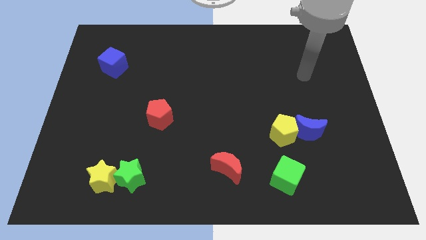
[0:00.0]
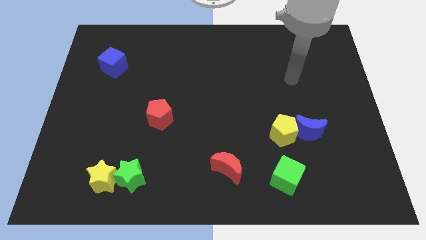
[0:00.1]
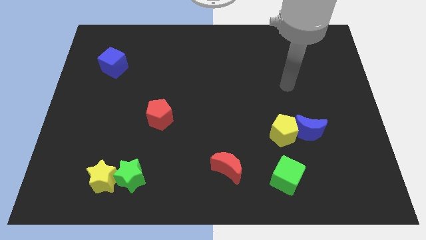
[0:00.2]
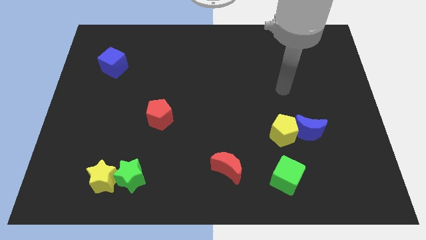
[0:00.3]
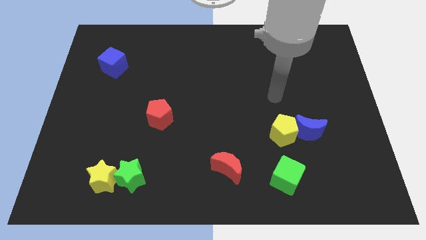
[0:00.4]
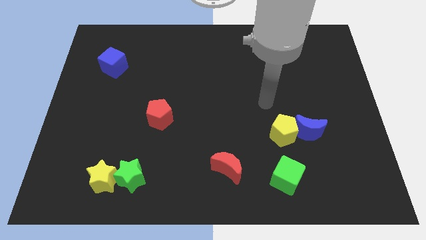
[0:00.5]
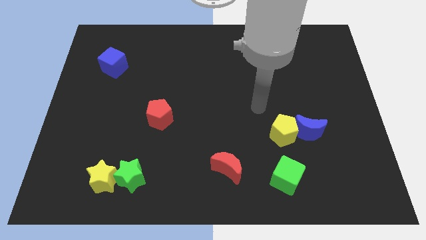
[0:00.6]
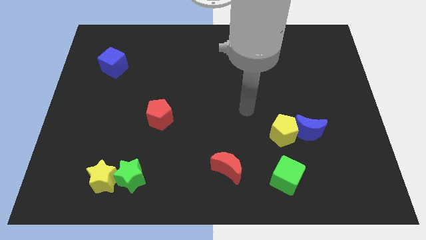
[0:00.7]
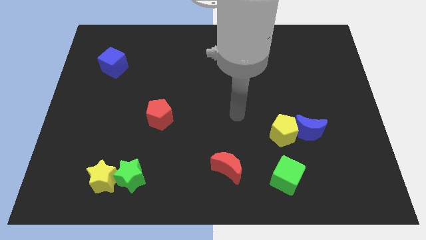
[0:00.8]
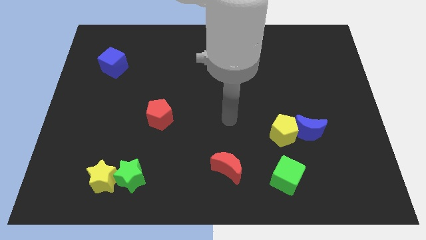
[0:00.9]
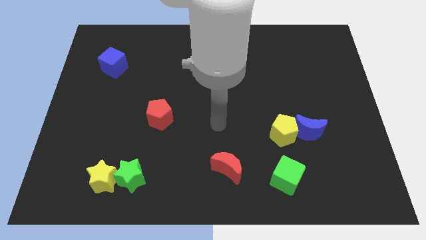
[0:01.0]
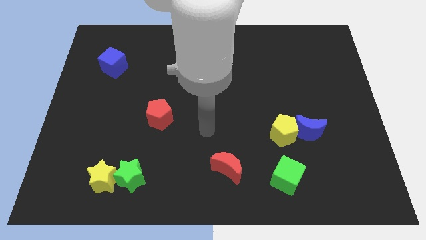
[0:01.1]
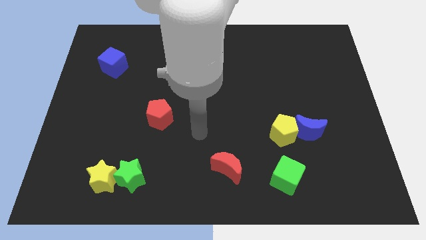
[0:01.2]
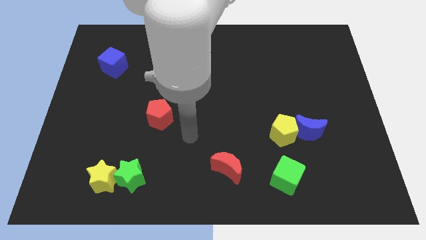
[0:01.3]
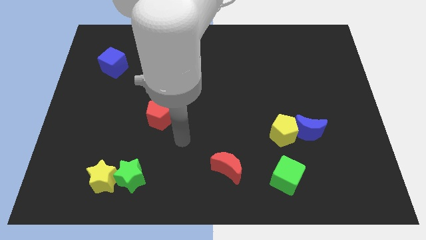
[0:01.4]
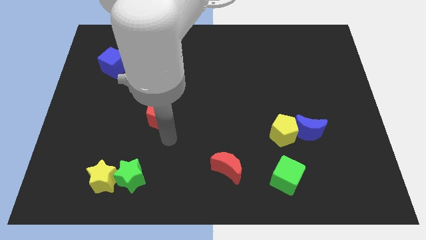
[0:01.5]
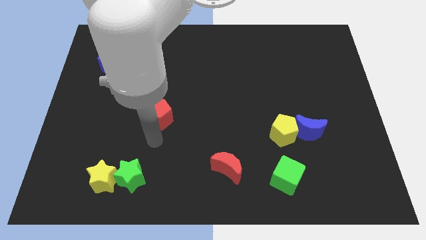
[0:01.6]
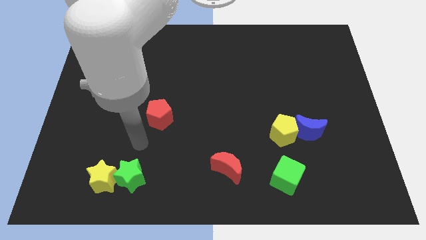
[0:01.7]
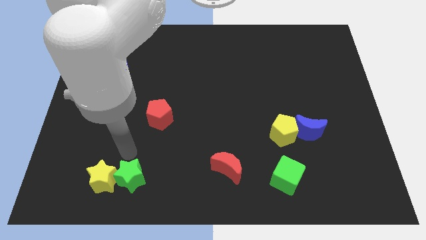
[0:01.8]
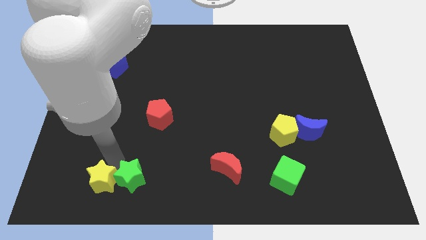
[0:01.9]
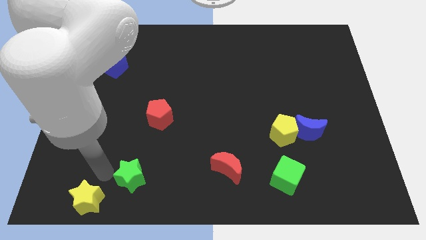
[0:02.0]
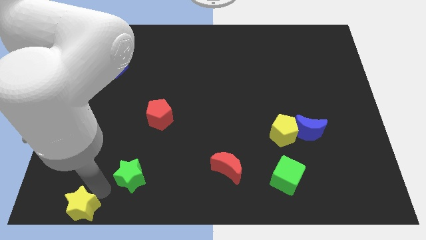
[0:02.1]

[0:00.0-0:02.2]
pull the green star apart from the yellow star

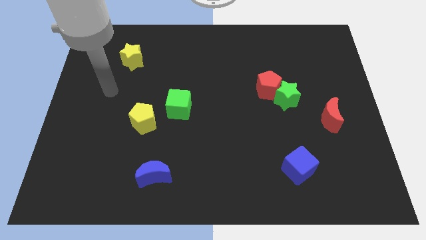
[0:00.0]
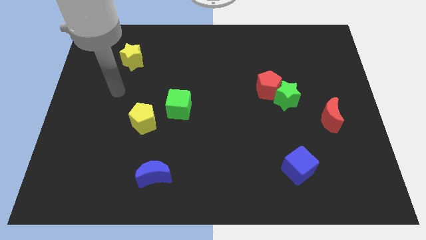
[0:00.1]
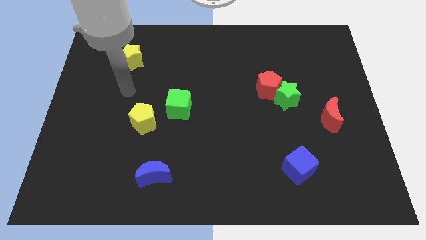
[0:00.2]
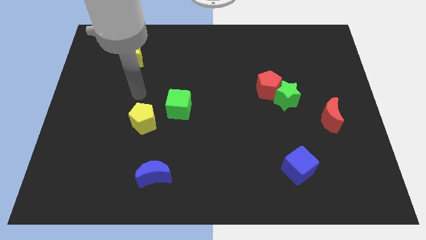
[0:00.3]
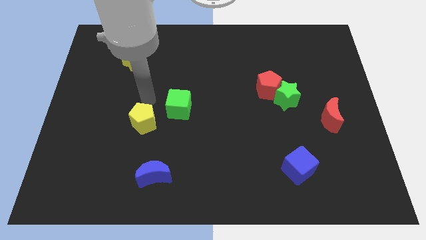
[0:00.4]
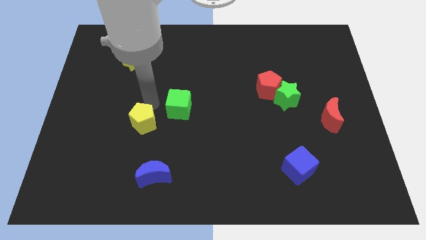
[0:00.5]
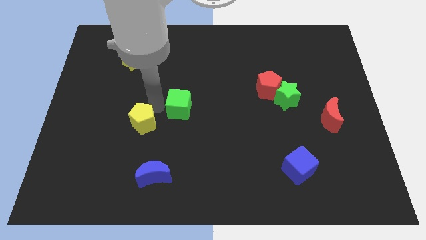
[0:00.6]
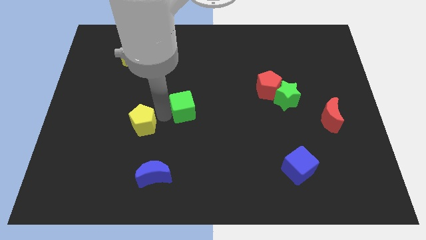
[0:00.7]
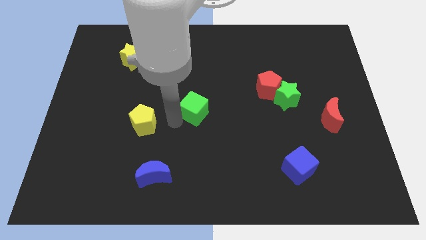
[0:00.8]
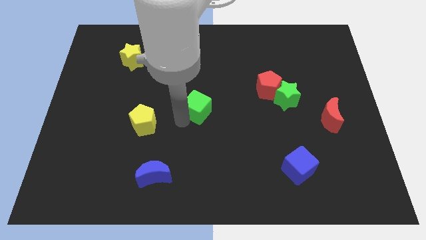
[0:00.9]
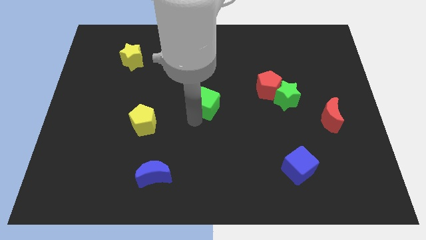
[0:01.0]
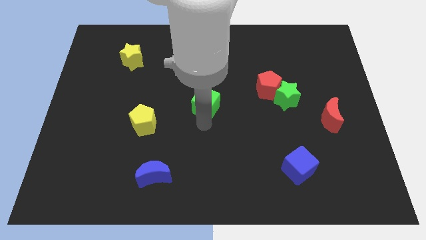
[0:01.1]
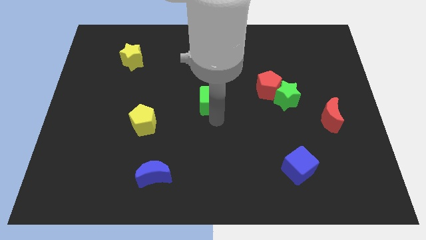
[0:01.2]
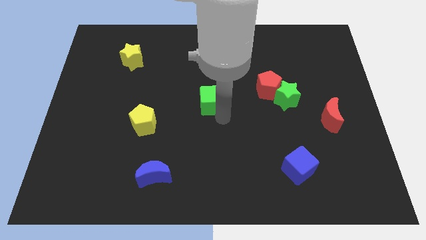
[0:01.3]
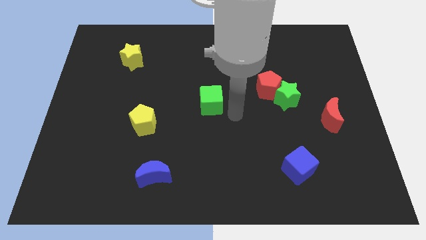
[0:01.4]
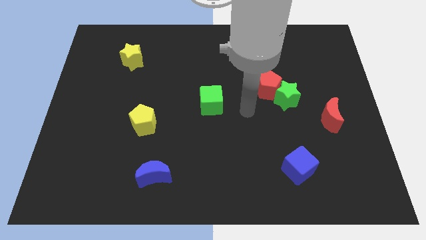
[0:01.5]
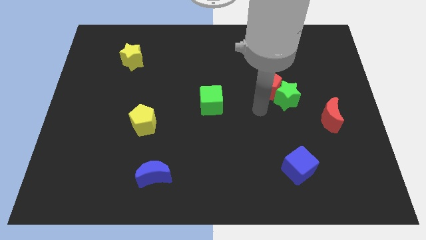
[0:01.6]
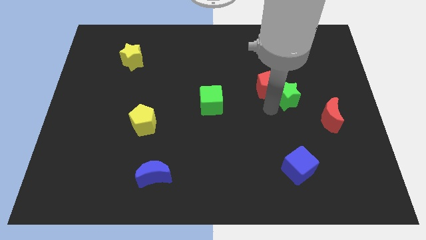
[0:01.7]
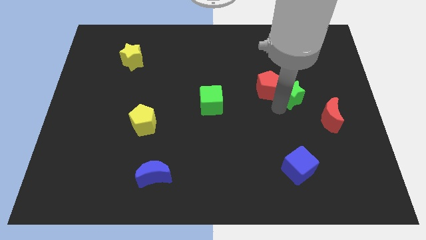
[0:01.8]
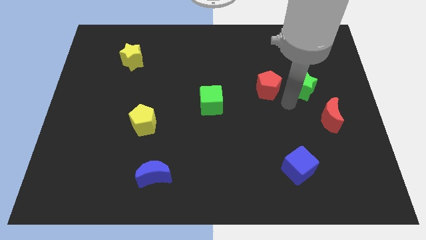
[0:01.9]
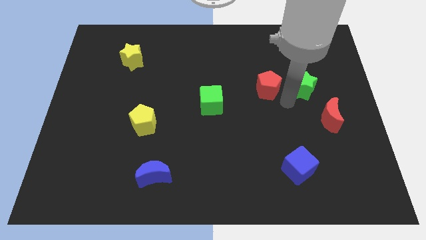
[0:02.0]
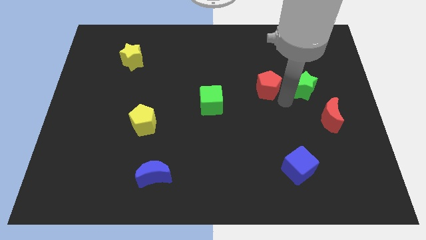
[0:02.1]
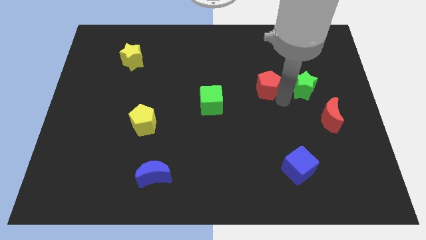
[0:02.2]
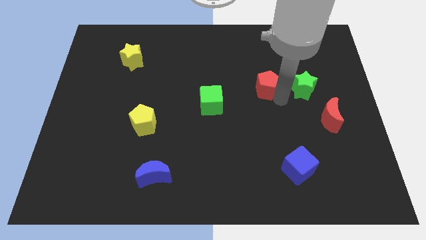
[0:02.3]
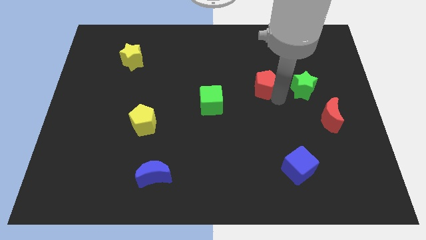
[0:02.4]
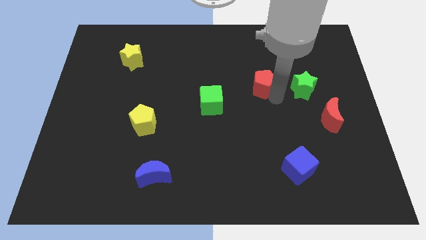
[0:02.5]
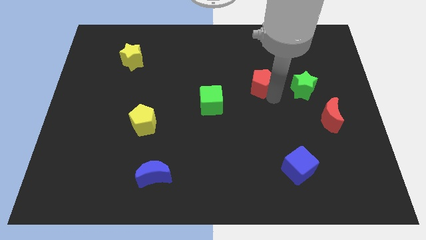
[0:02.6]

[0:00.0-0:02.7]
separate the red pentagon from the green star

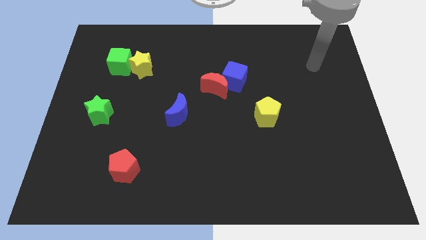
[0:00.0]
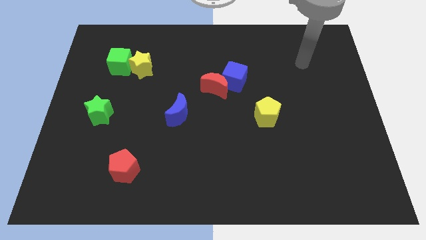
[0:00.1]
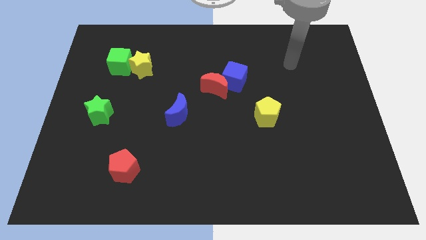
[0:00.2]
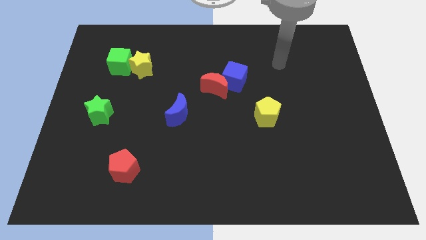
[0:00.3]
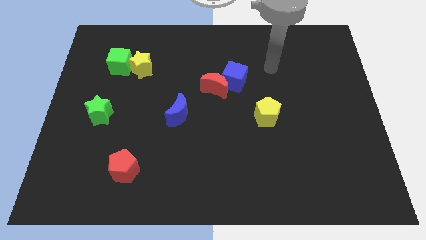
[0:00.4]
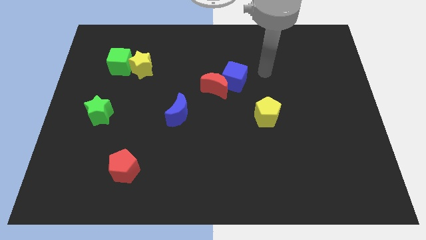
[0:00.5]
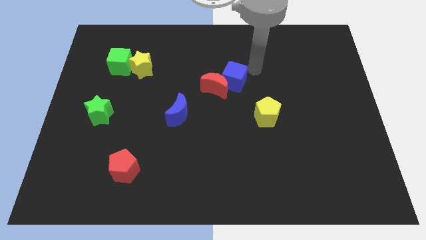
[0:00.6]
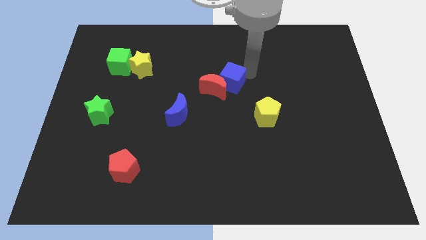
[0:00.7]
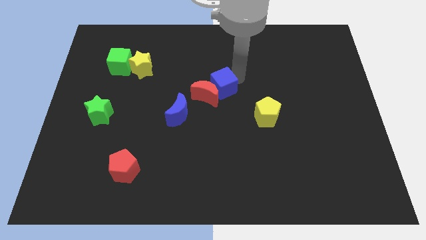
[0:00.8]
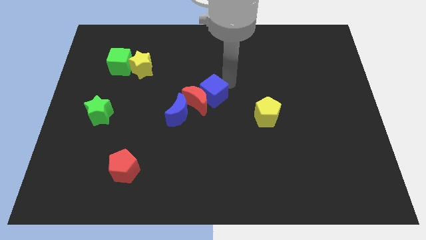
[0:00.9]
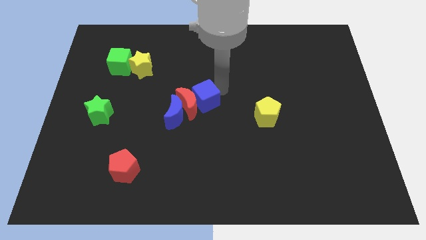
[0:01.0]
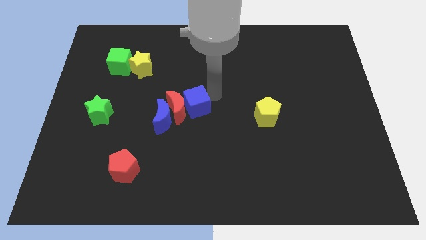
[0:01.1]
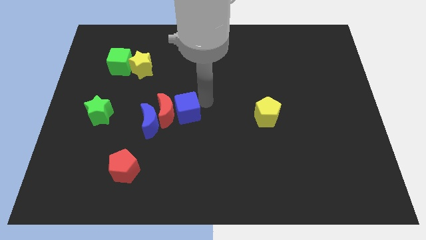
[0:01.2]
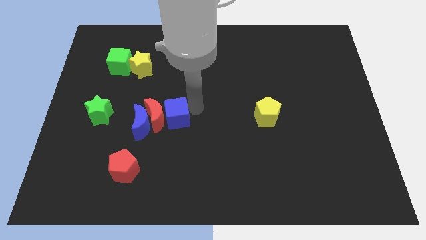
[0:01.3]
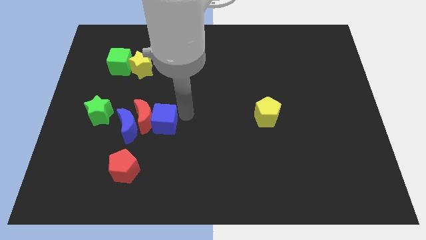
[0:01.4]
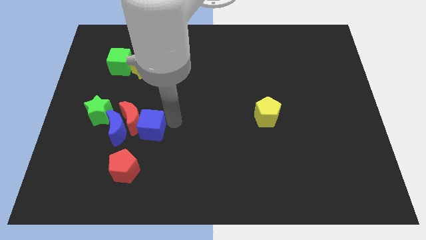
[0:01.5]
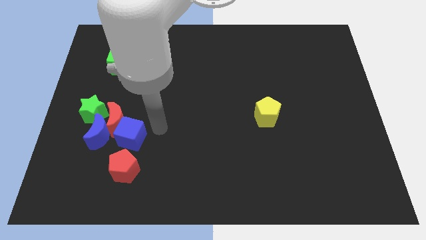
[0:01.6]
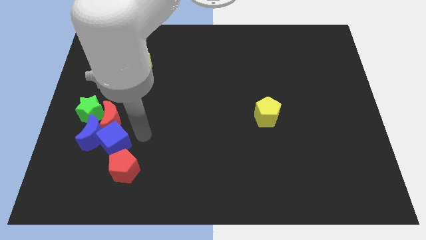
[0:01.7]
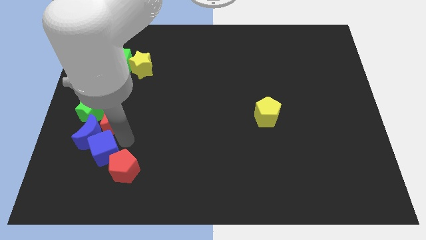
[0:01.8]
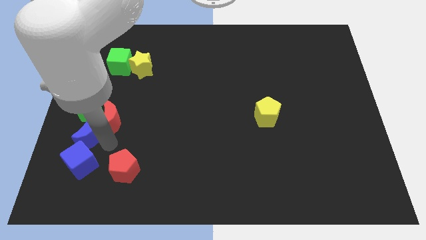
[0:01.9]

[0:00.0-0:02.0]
move the red moon away from the blue cube

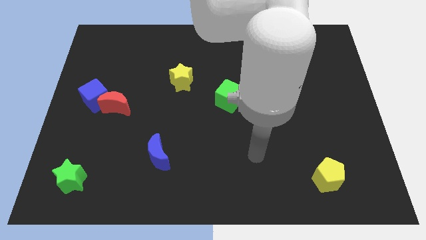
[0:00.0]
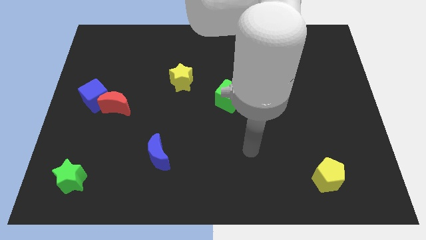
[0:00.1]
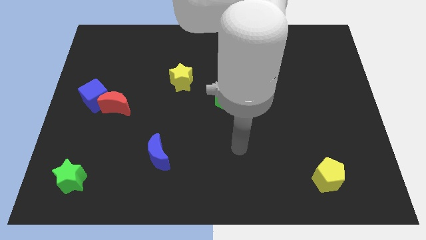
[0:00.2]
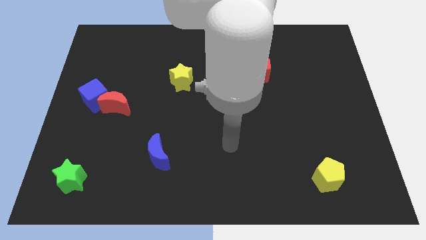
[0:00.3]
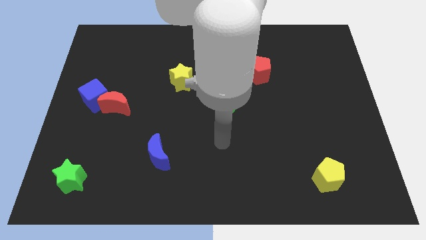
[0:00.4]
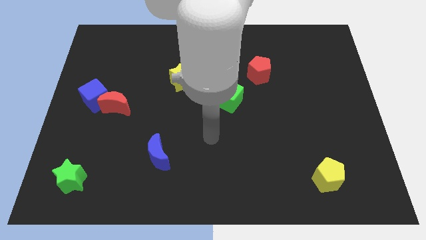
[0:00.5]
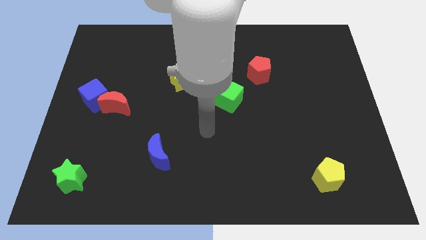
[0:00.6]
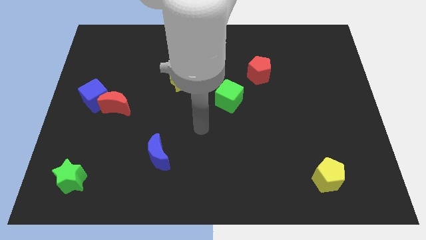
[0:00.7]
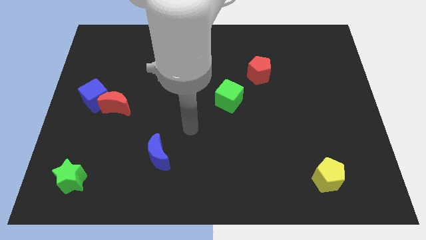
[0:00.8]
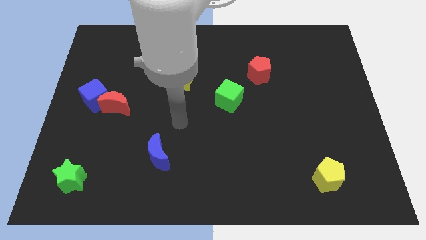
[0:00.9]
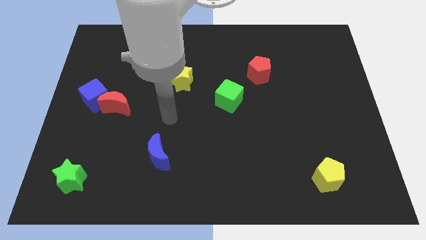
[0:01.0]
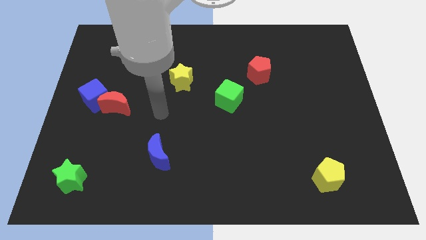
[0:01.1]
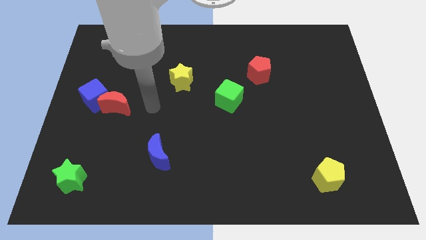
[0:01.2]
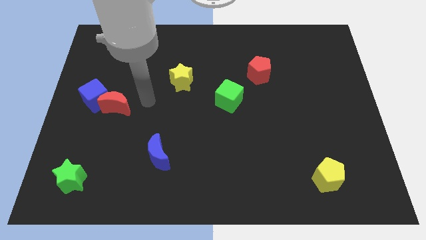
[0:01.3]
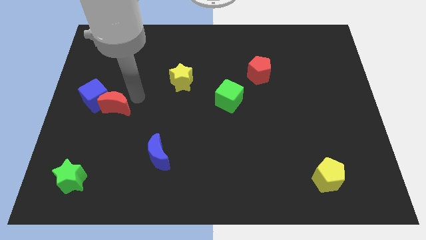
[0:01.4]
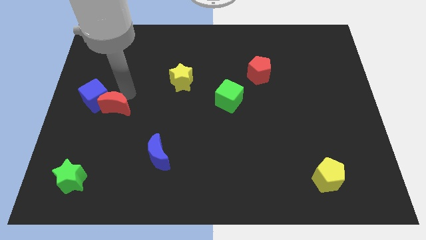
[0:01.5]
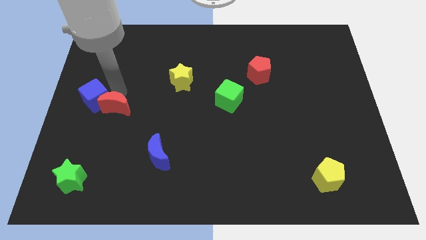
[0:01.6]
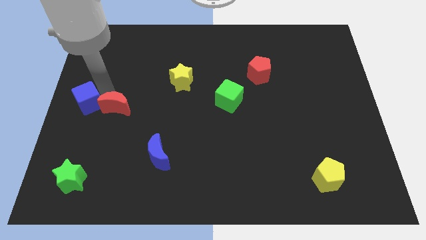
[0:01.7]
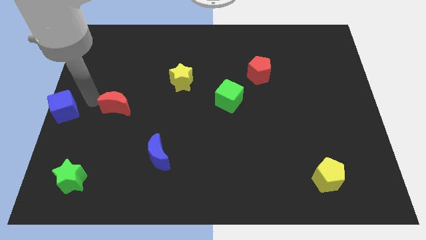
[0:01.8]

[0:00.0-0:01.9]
separate the red moon from the blue cube

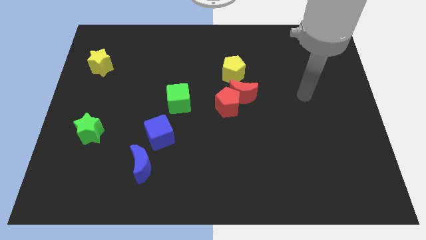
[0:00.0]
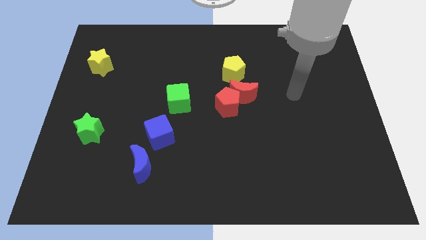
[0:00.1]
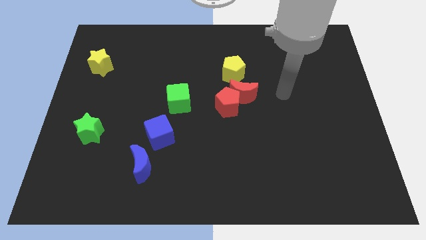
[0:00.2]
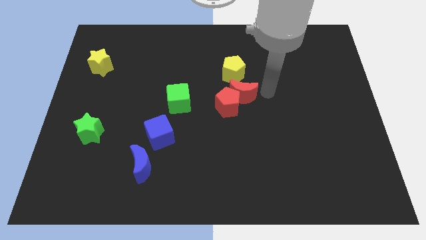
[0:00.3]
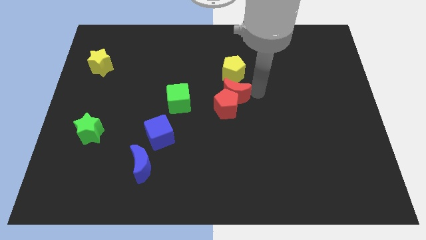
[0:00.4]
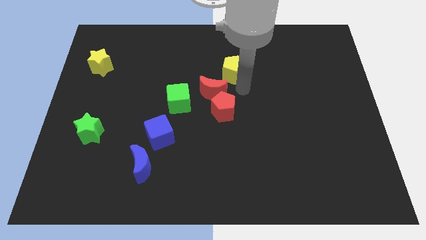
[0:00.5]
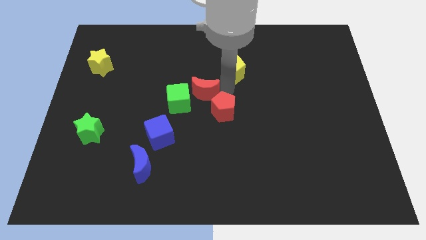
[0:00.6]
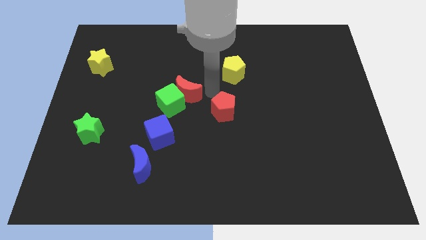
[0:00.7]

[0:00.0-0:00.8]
separate the red pentagon from the red moon
